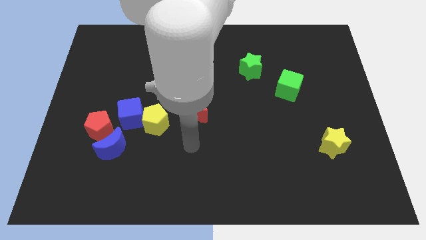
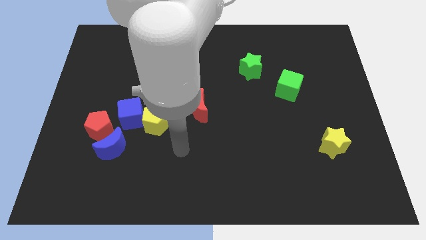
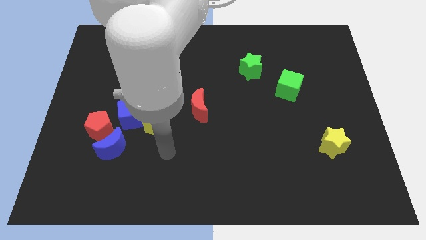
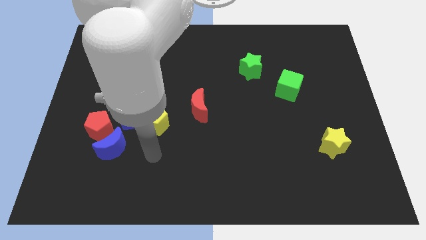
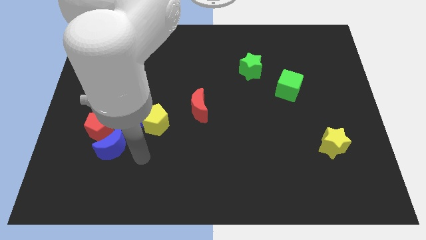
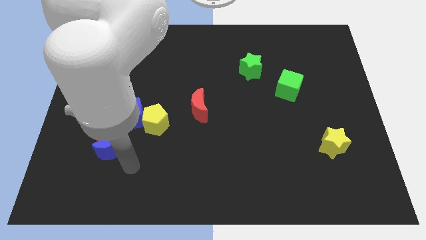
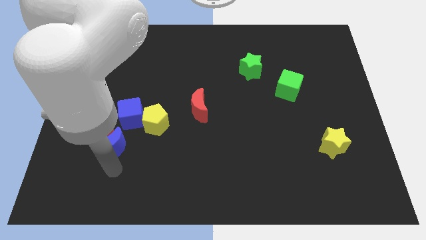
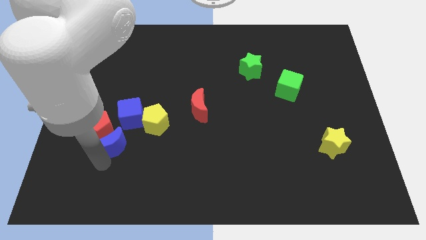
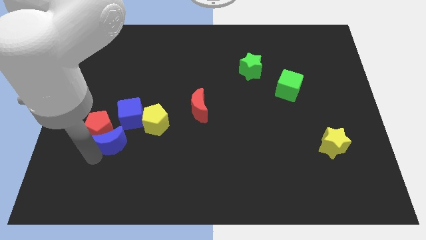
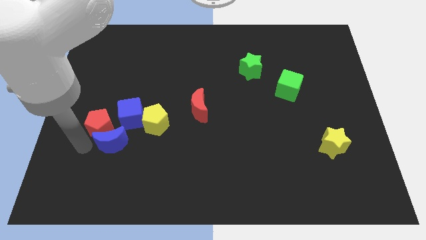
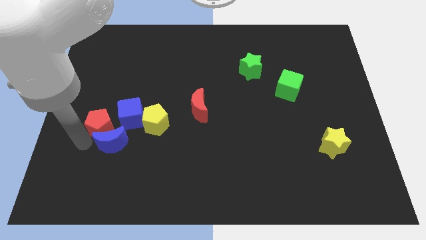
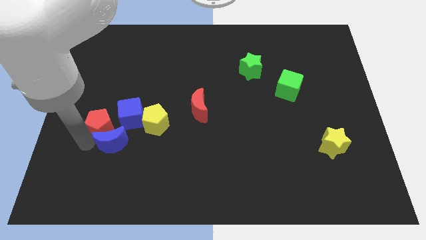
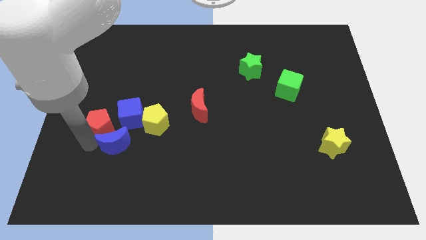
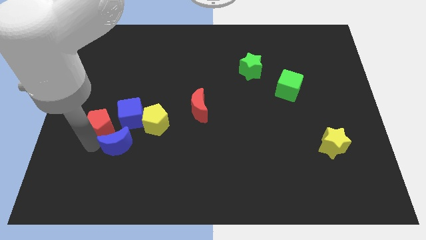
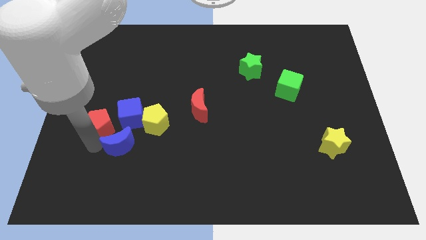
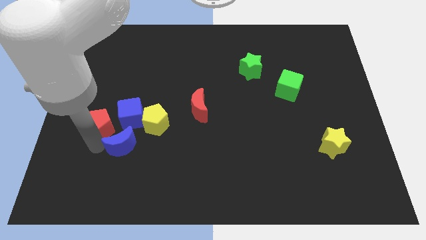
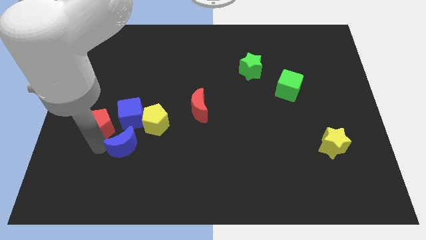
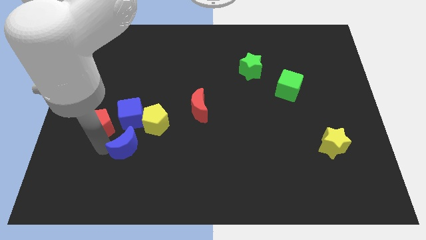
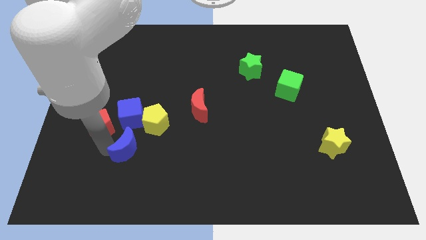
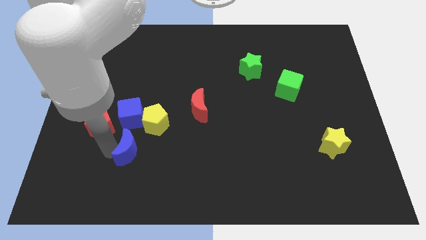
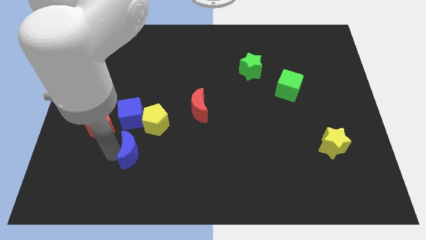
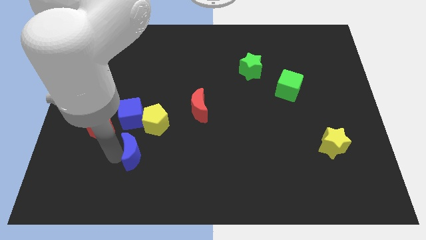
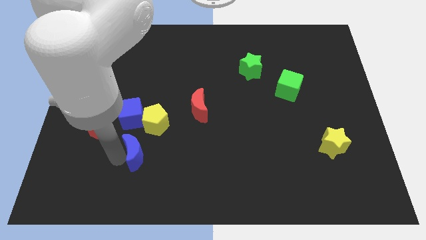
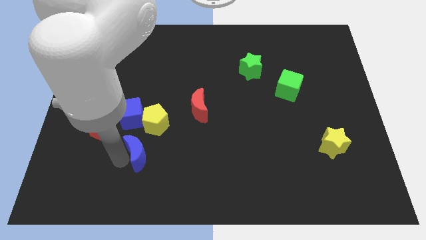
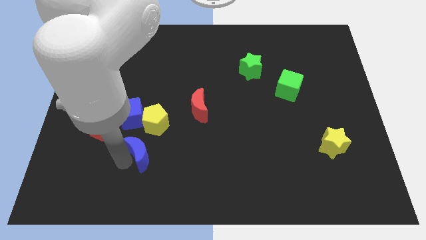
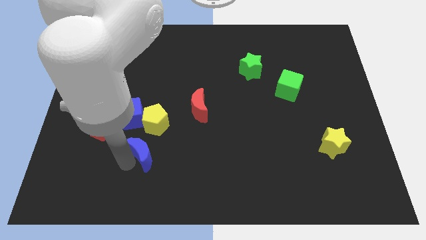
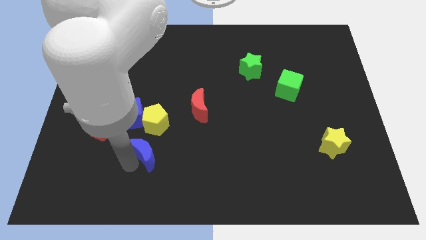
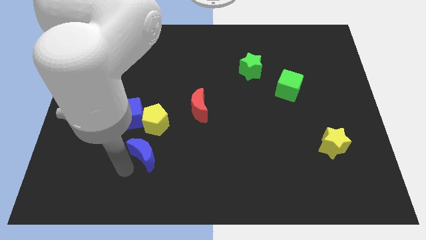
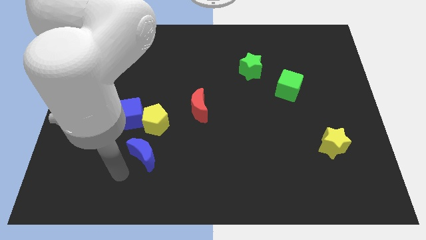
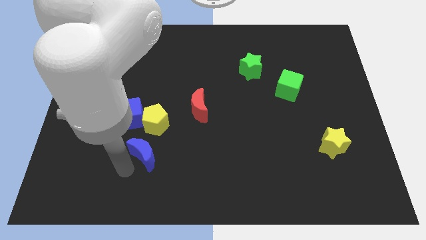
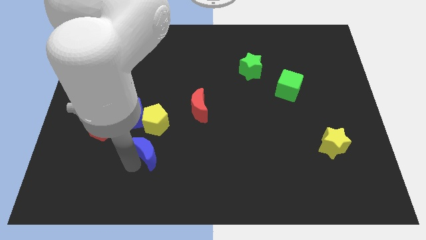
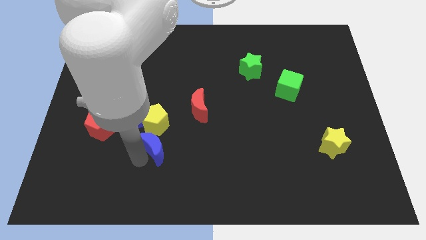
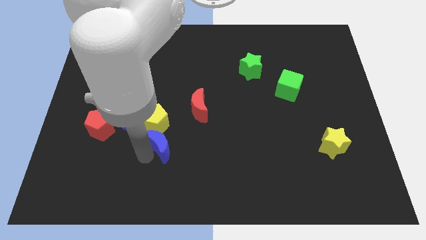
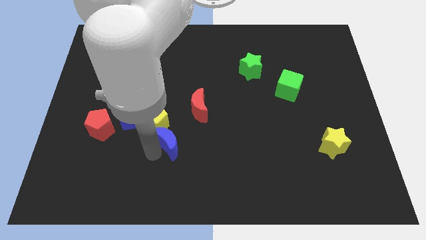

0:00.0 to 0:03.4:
slide the blue moon up and right a little

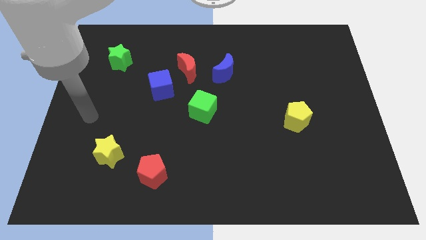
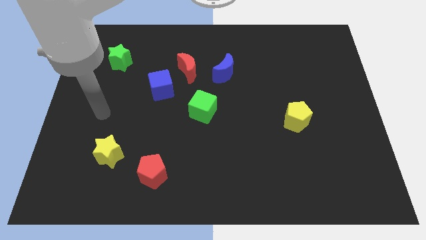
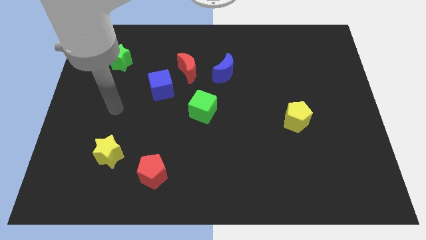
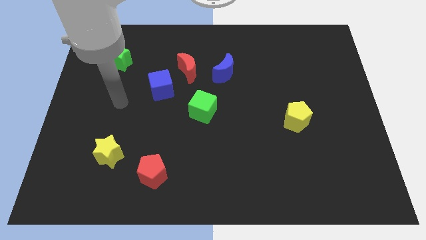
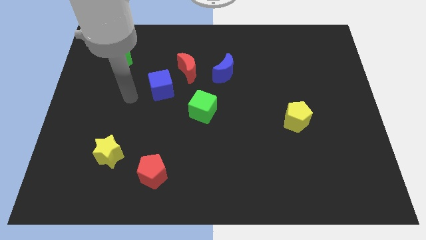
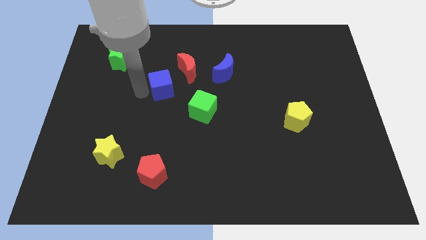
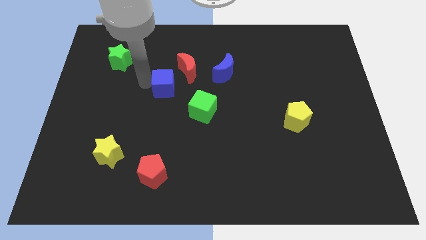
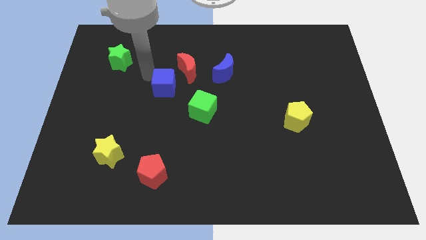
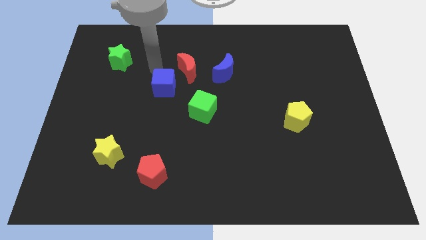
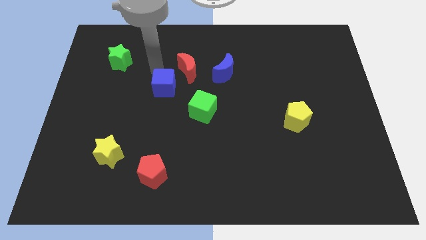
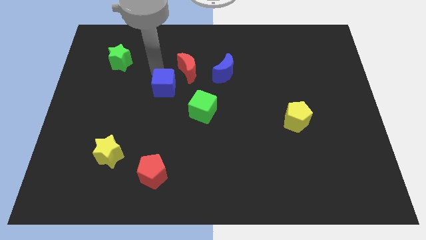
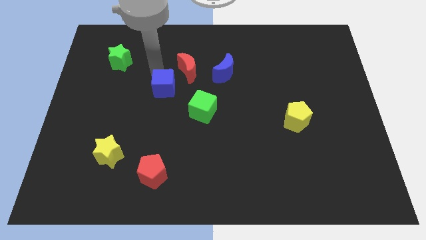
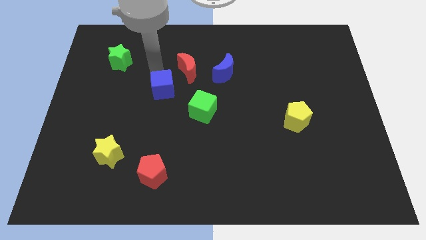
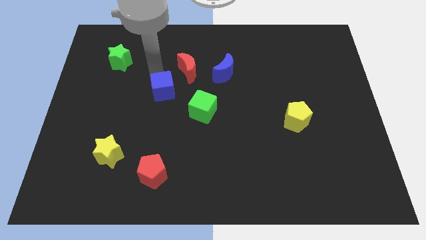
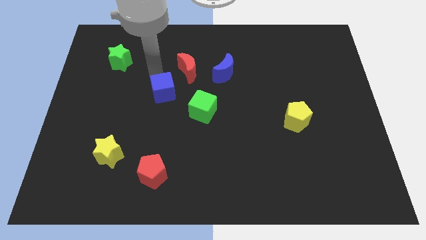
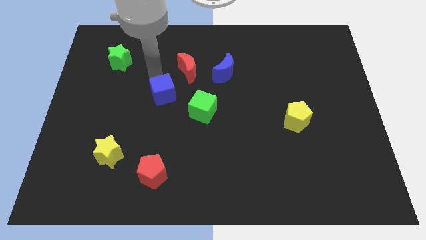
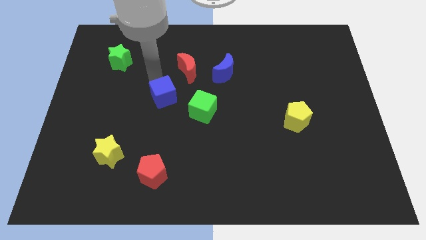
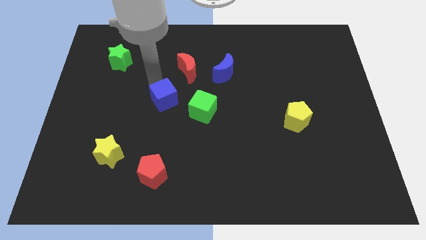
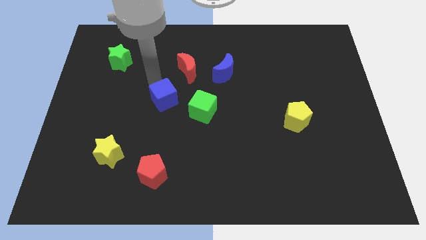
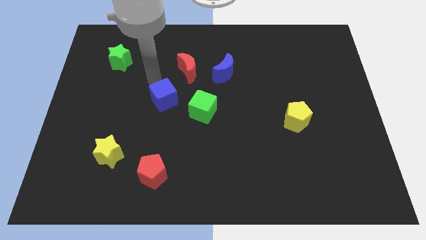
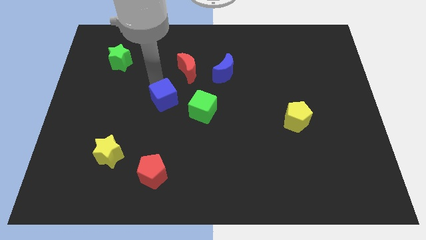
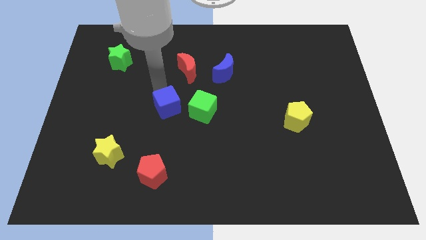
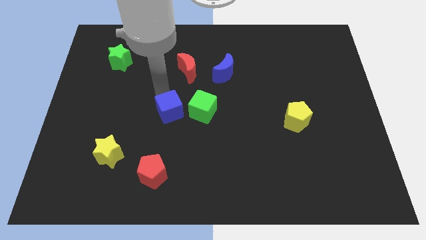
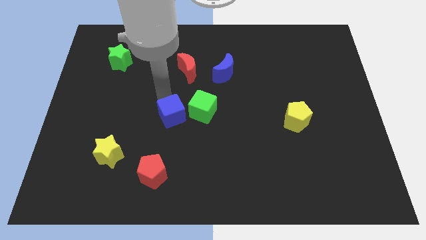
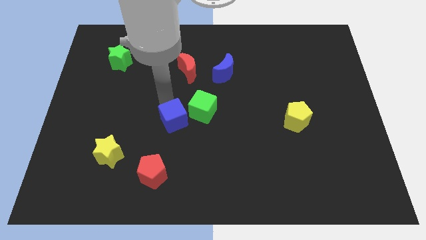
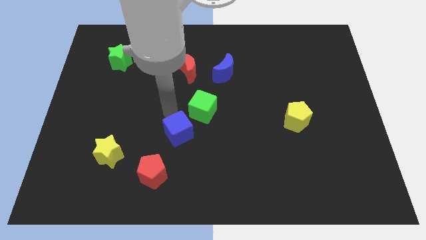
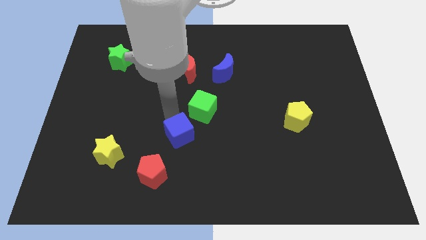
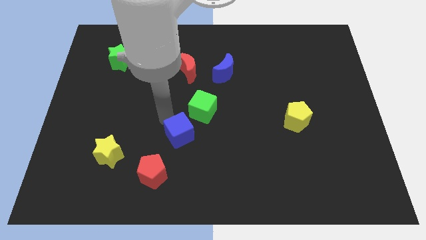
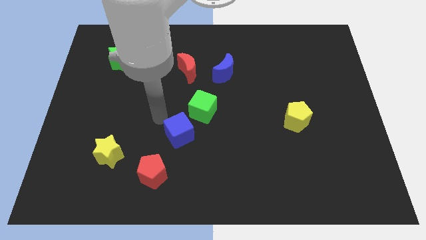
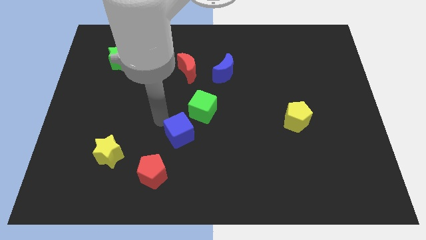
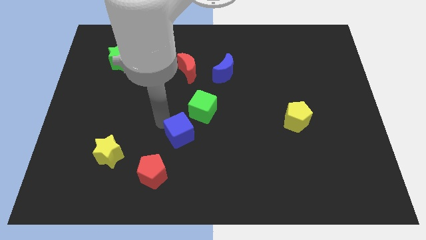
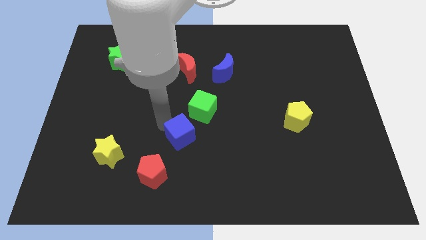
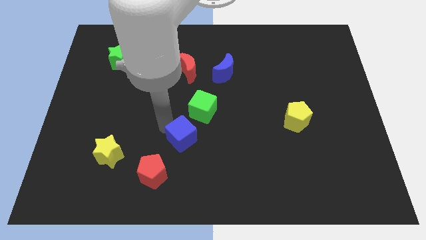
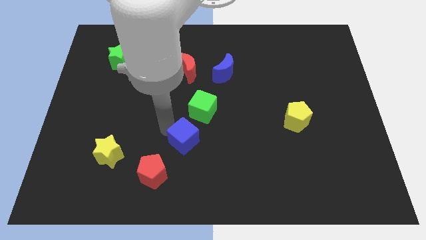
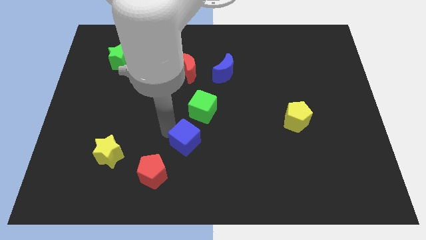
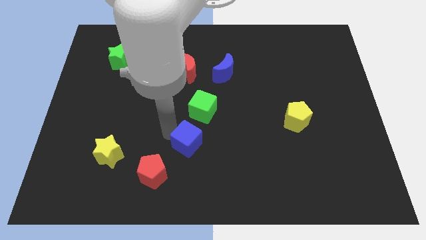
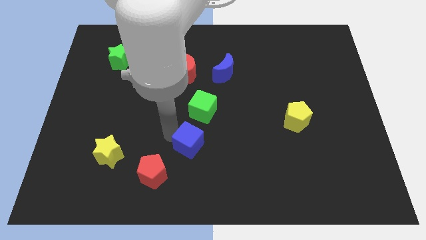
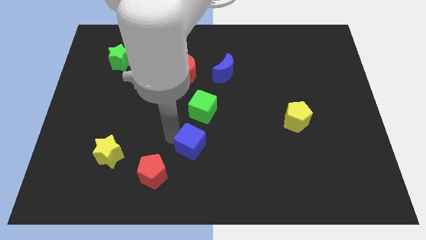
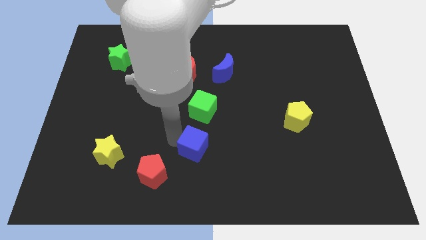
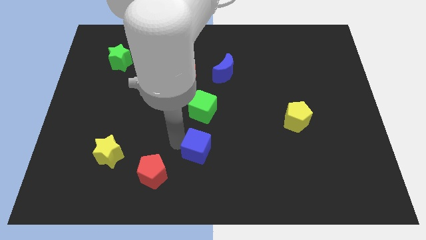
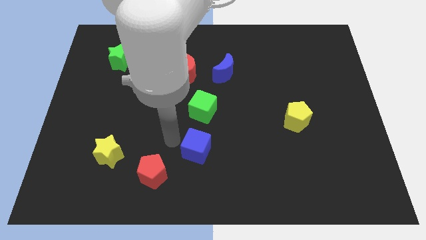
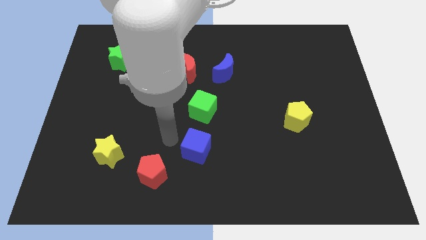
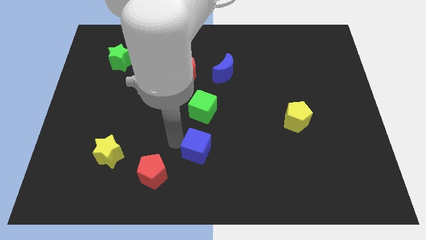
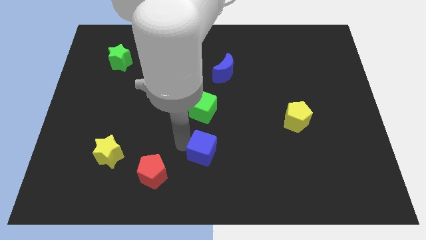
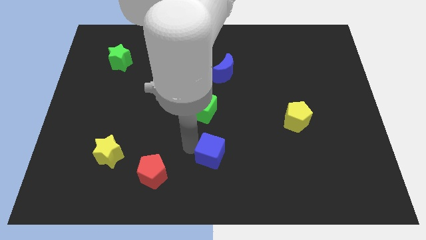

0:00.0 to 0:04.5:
move the blue cube downwards and then right
